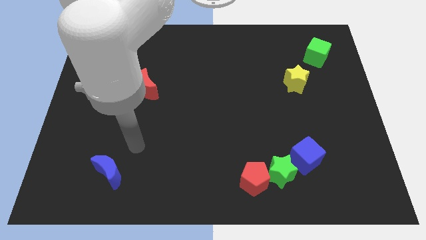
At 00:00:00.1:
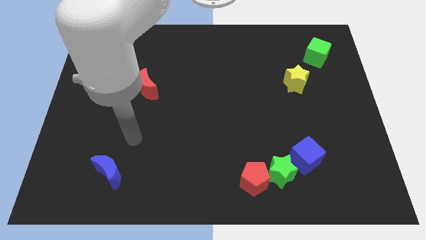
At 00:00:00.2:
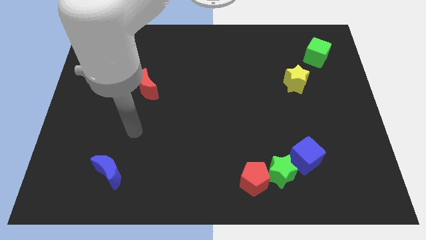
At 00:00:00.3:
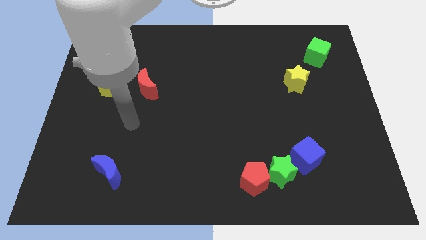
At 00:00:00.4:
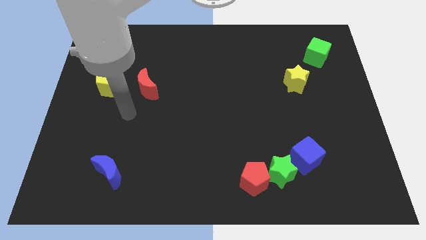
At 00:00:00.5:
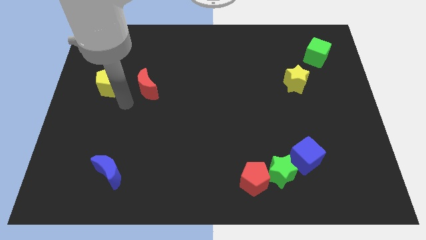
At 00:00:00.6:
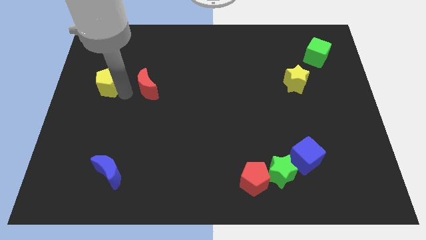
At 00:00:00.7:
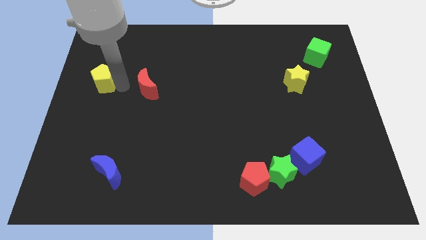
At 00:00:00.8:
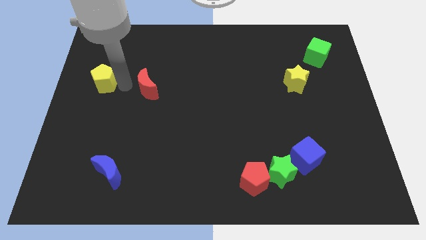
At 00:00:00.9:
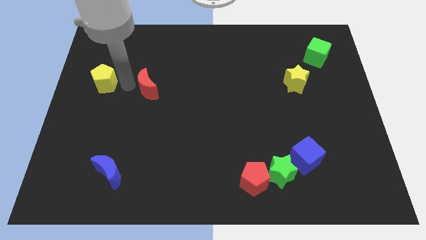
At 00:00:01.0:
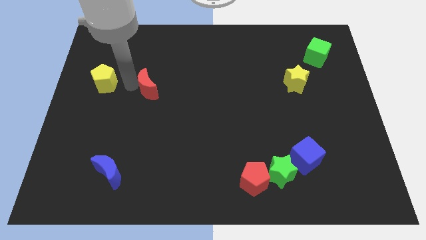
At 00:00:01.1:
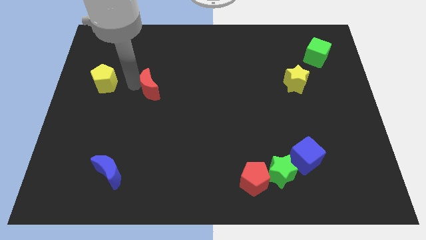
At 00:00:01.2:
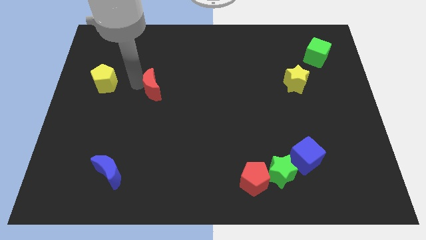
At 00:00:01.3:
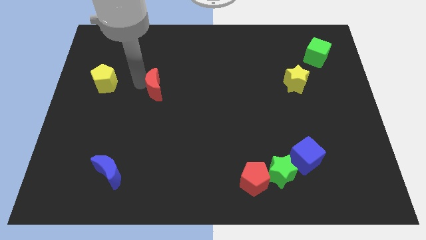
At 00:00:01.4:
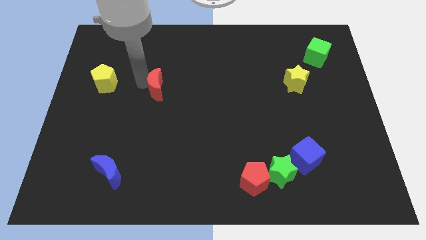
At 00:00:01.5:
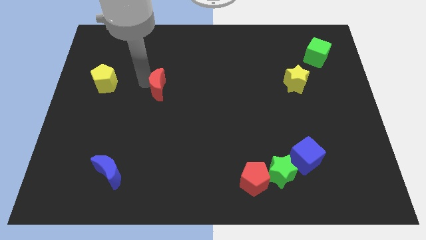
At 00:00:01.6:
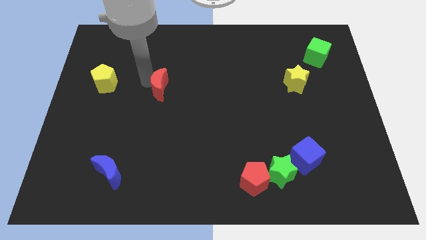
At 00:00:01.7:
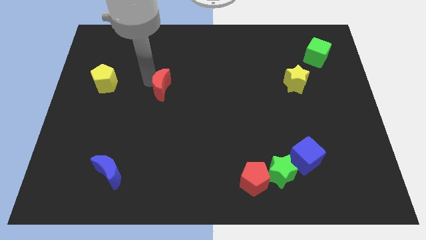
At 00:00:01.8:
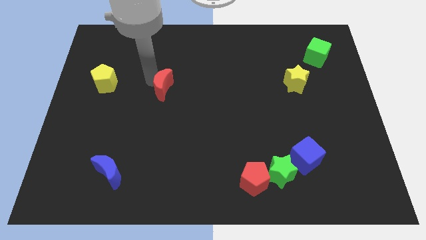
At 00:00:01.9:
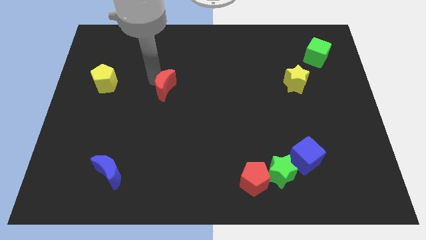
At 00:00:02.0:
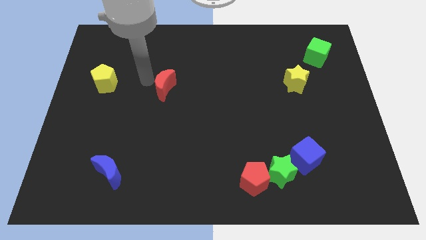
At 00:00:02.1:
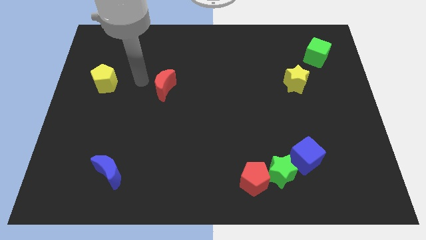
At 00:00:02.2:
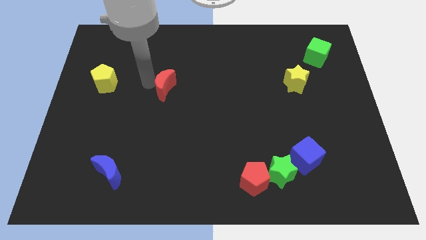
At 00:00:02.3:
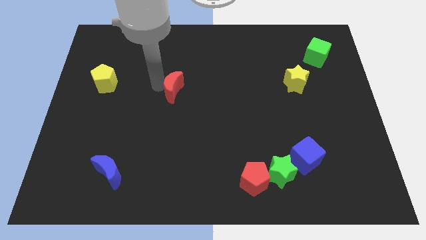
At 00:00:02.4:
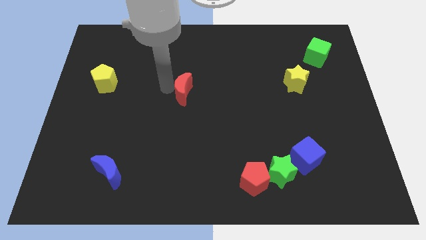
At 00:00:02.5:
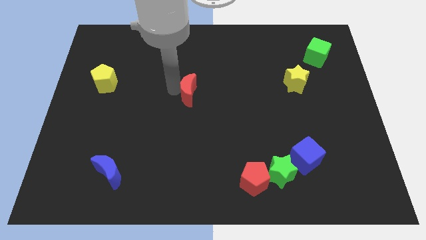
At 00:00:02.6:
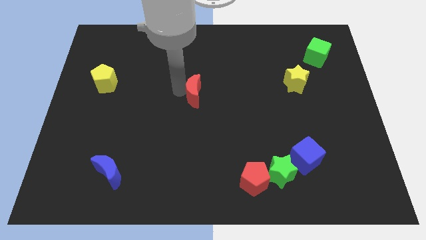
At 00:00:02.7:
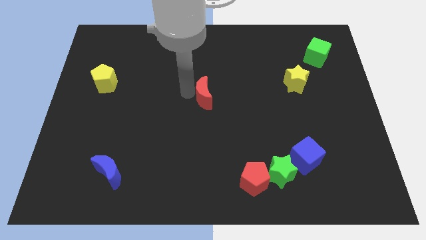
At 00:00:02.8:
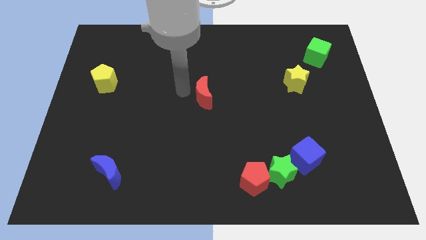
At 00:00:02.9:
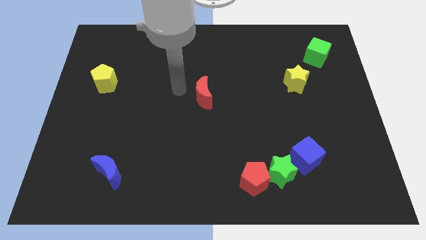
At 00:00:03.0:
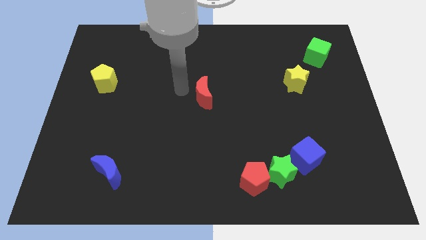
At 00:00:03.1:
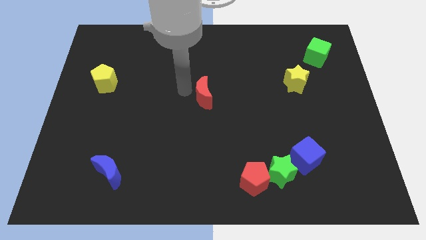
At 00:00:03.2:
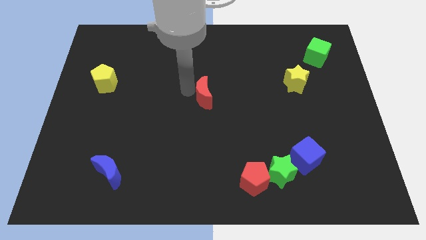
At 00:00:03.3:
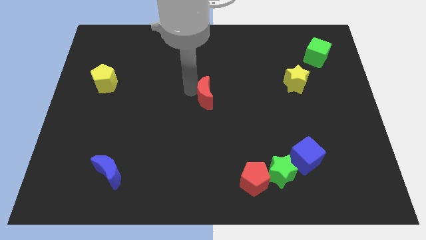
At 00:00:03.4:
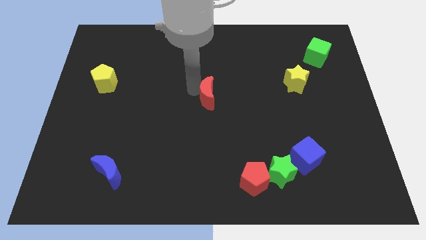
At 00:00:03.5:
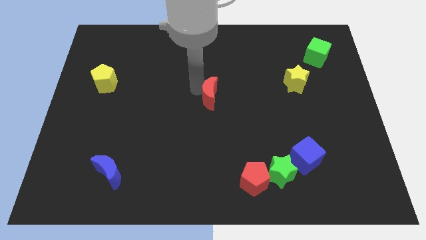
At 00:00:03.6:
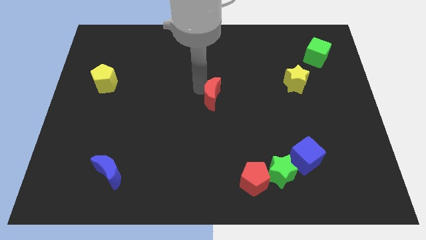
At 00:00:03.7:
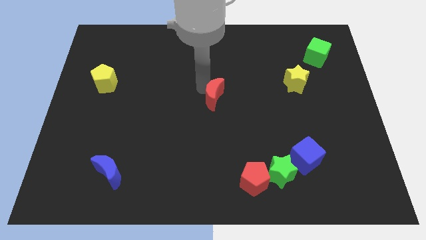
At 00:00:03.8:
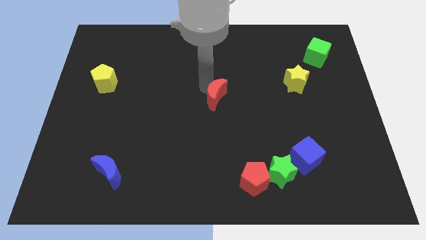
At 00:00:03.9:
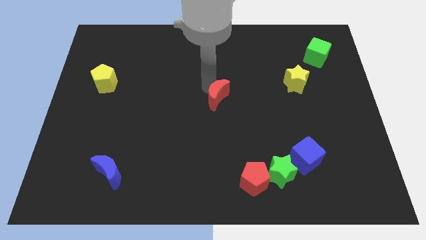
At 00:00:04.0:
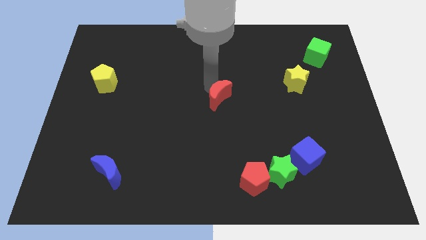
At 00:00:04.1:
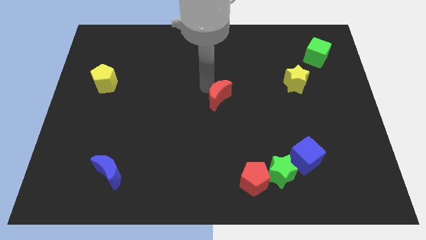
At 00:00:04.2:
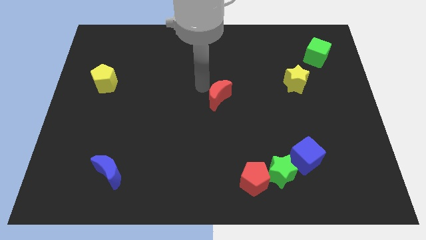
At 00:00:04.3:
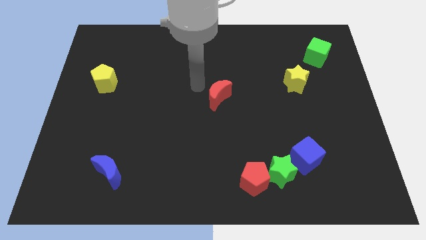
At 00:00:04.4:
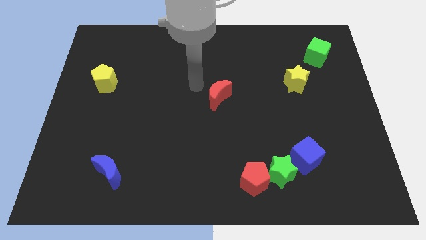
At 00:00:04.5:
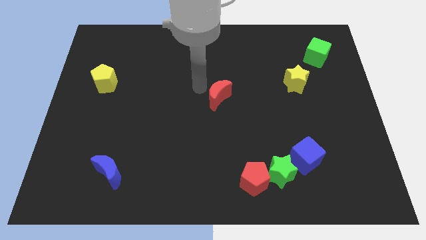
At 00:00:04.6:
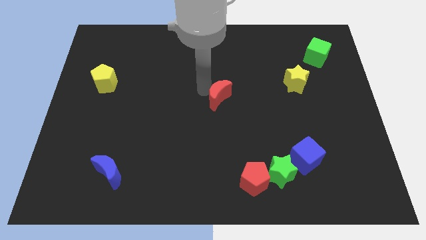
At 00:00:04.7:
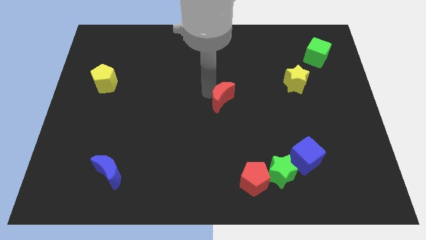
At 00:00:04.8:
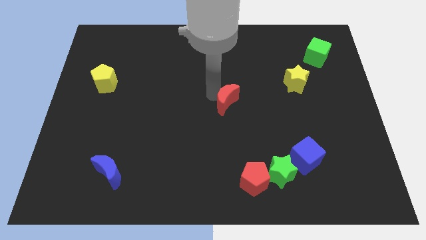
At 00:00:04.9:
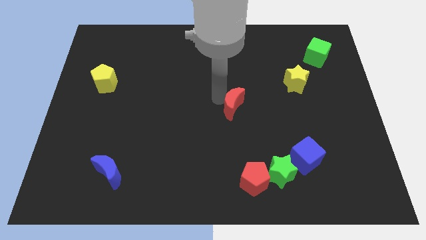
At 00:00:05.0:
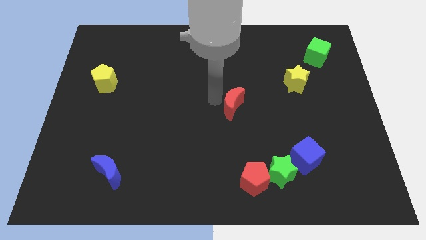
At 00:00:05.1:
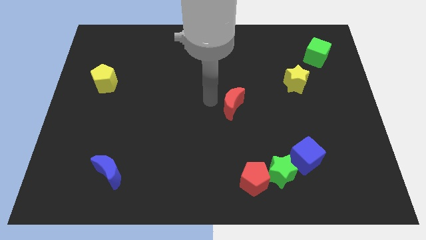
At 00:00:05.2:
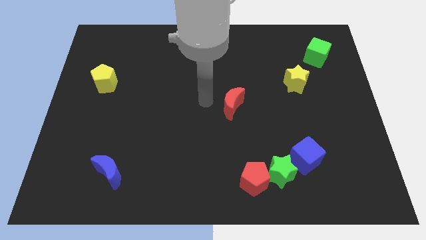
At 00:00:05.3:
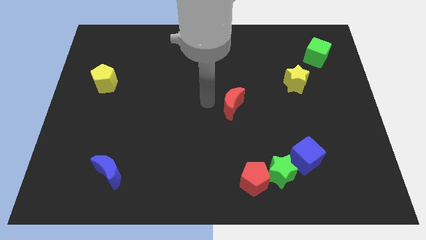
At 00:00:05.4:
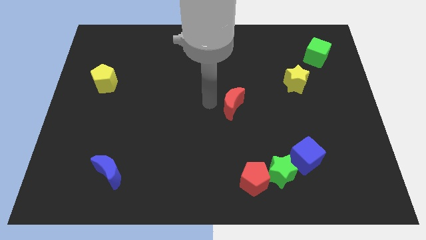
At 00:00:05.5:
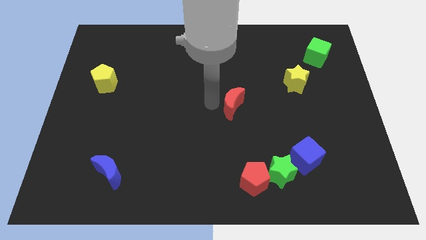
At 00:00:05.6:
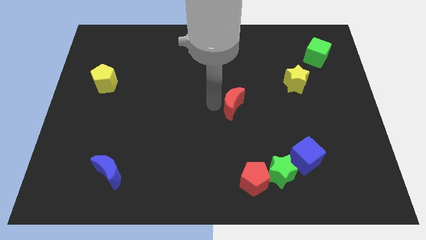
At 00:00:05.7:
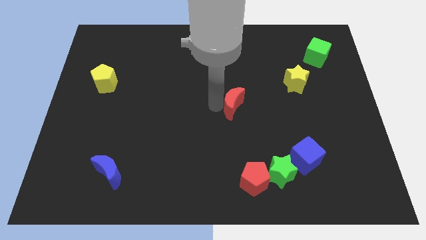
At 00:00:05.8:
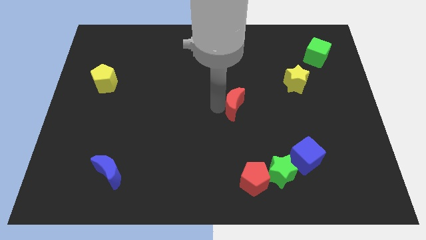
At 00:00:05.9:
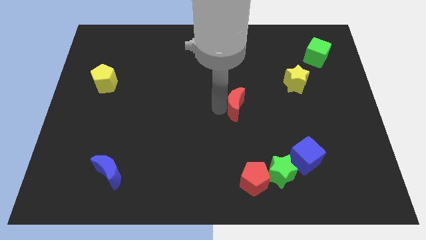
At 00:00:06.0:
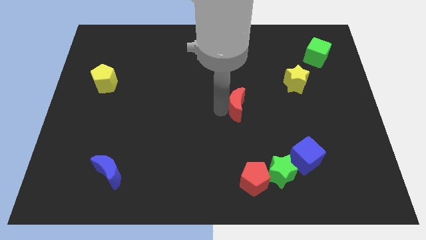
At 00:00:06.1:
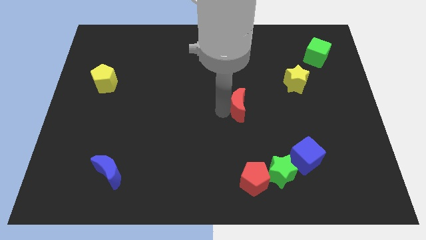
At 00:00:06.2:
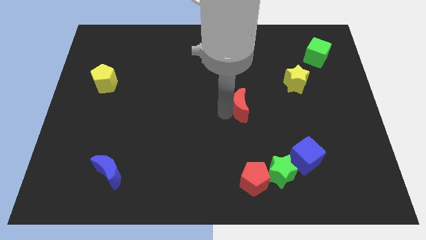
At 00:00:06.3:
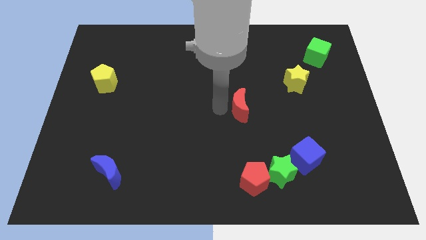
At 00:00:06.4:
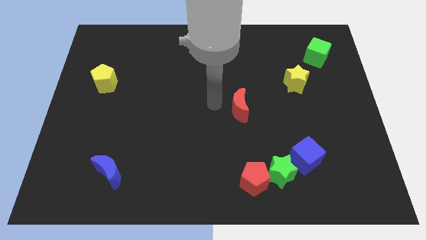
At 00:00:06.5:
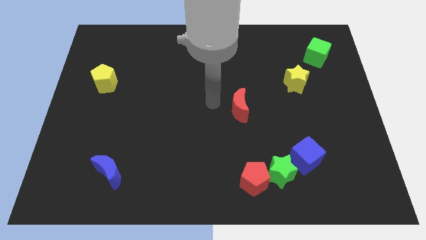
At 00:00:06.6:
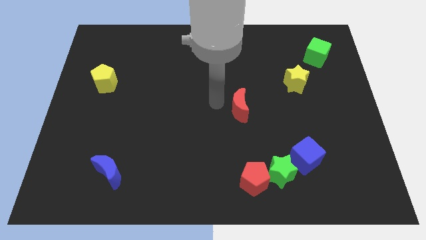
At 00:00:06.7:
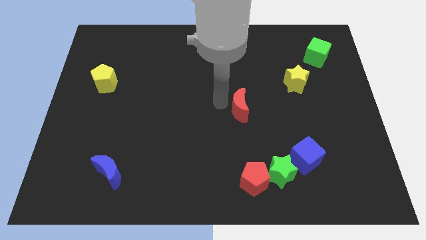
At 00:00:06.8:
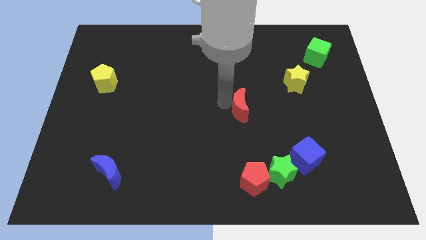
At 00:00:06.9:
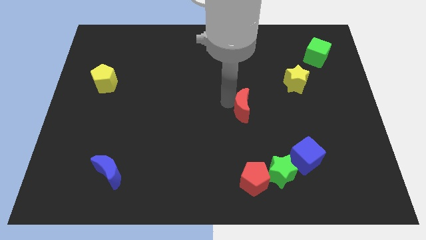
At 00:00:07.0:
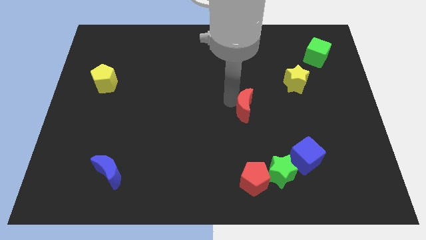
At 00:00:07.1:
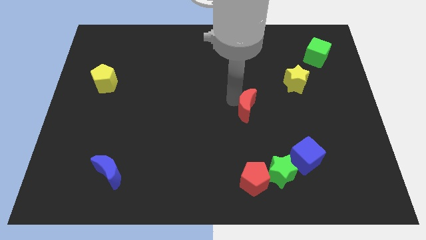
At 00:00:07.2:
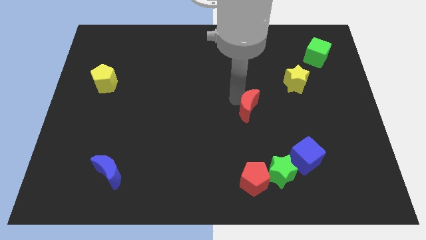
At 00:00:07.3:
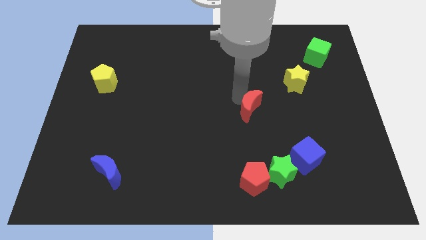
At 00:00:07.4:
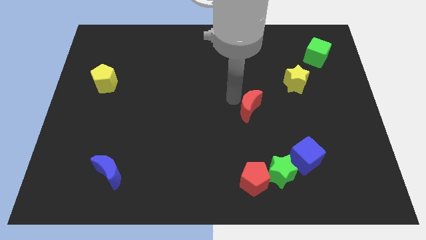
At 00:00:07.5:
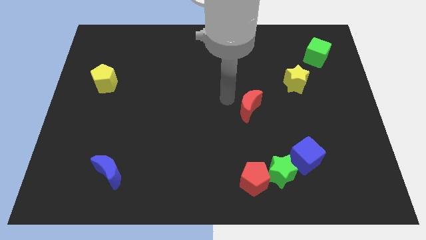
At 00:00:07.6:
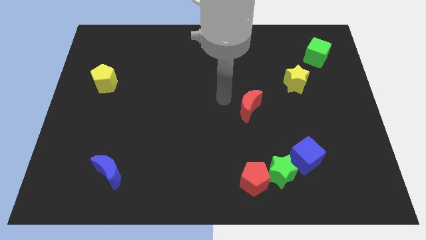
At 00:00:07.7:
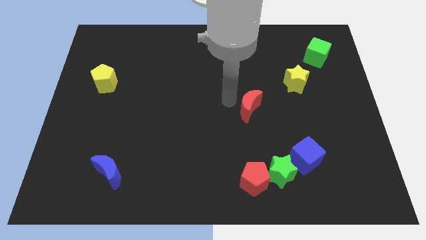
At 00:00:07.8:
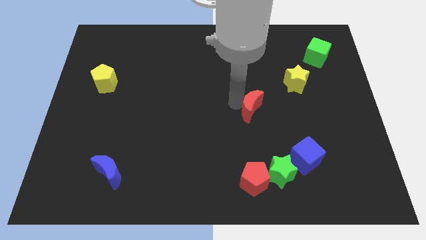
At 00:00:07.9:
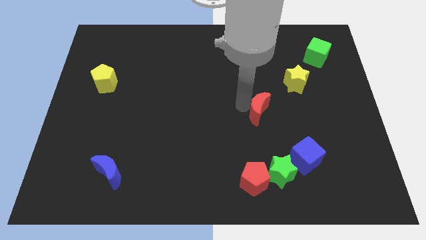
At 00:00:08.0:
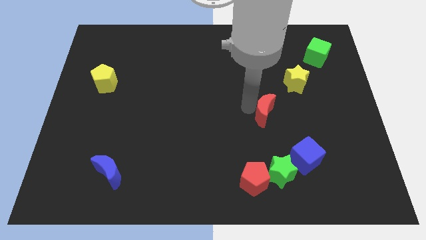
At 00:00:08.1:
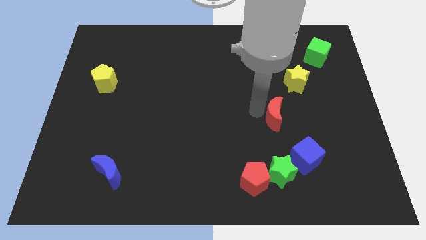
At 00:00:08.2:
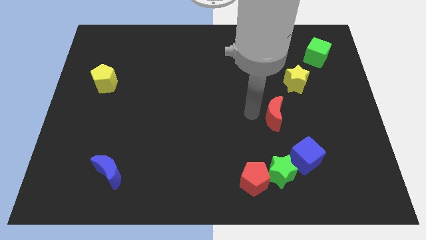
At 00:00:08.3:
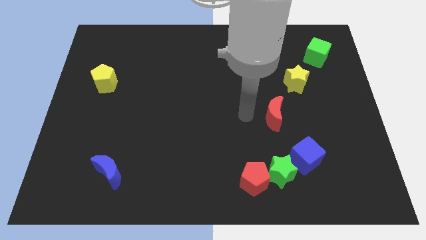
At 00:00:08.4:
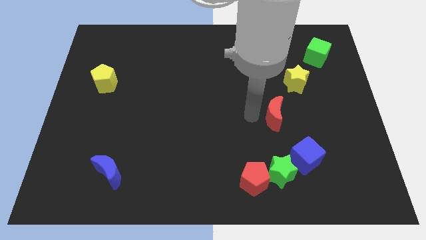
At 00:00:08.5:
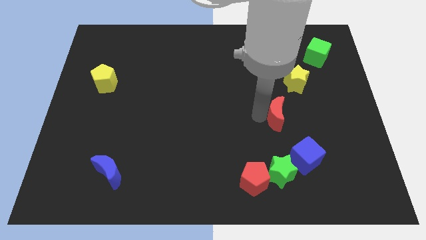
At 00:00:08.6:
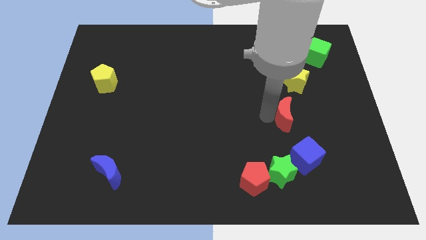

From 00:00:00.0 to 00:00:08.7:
push the red moon to the bottom of the yellow star
